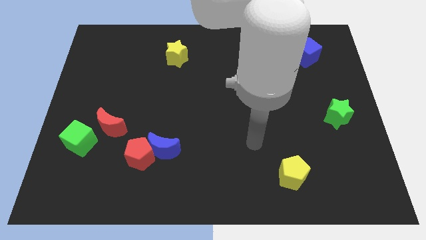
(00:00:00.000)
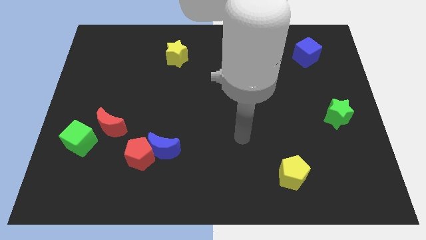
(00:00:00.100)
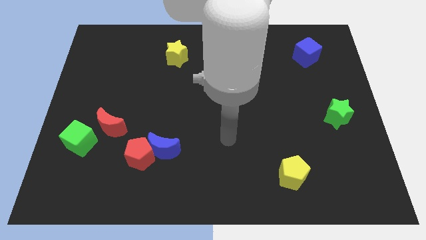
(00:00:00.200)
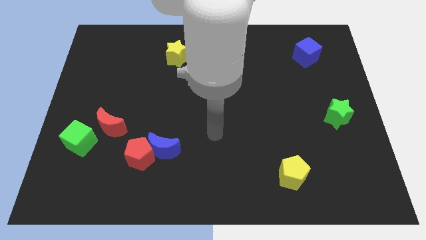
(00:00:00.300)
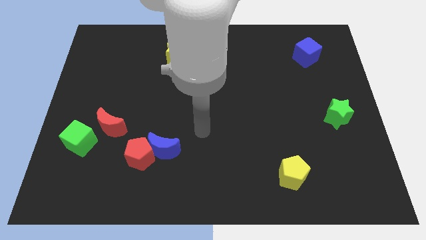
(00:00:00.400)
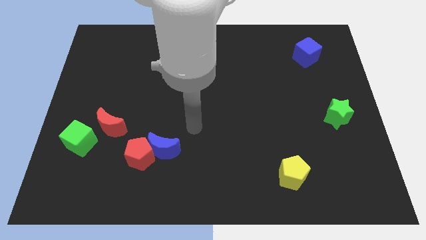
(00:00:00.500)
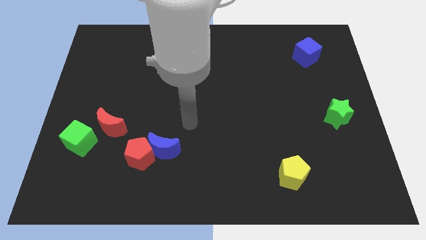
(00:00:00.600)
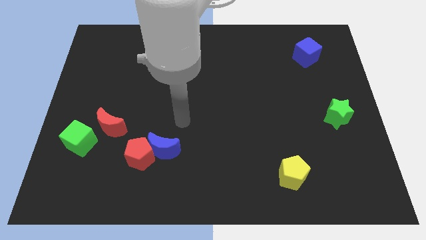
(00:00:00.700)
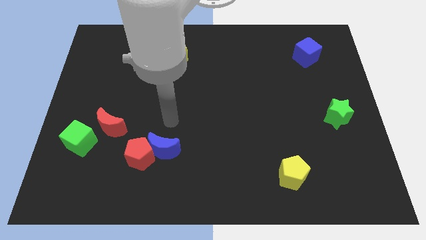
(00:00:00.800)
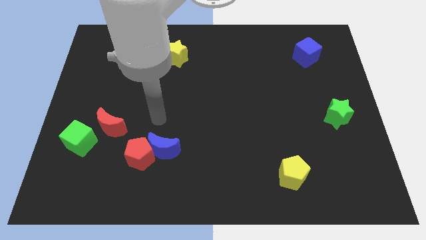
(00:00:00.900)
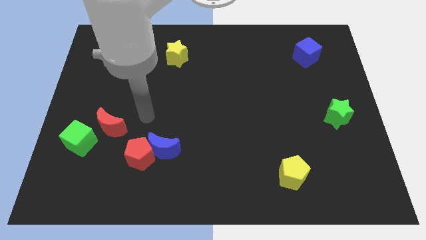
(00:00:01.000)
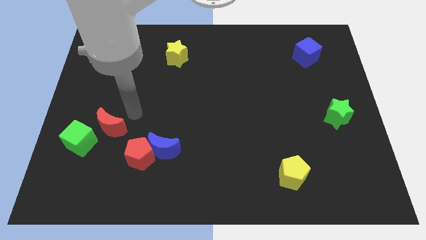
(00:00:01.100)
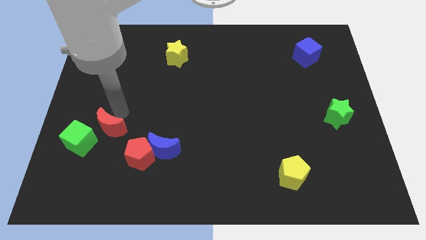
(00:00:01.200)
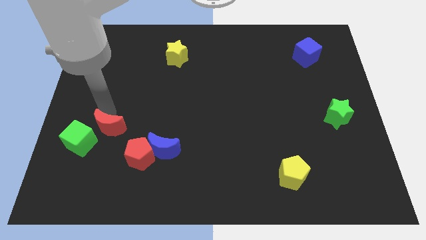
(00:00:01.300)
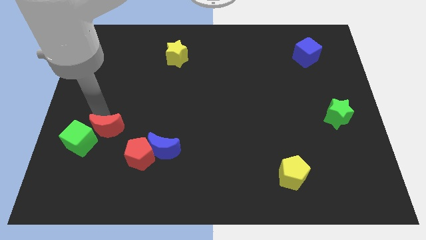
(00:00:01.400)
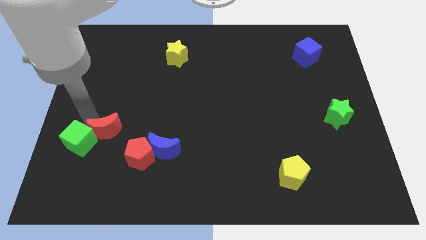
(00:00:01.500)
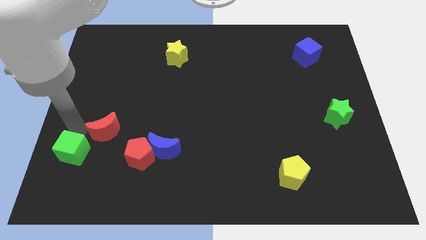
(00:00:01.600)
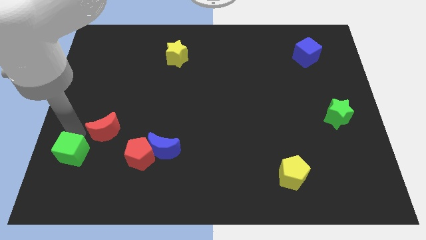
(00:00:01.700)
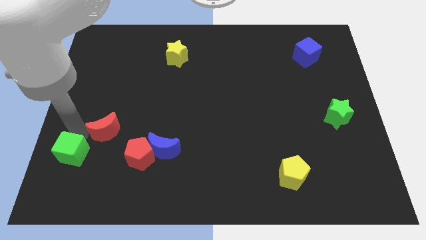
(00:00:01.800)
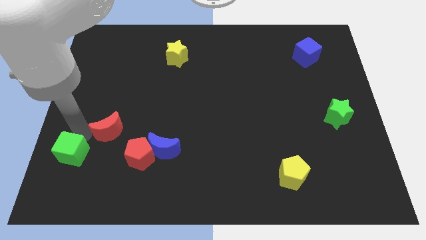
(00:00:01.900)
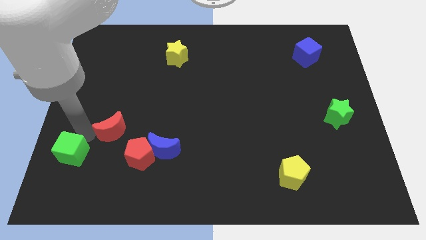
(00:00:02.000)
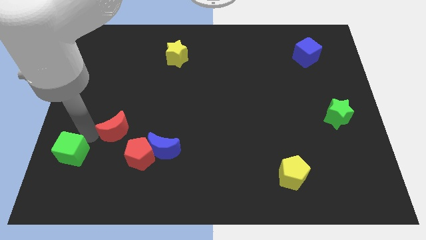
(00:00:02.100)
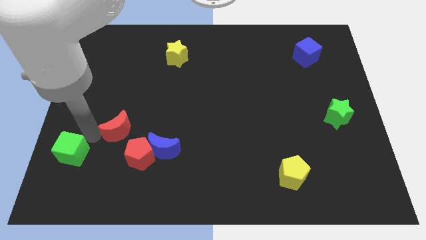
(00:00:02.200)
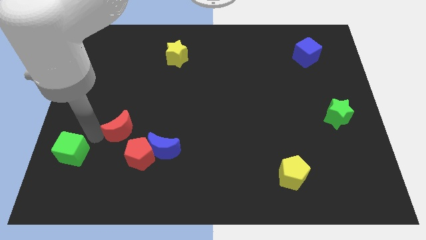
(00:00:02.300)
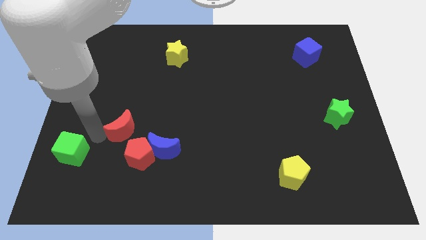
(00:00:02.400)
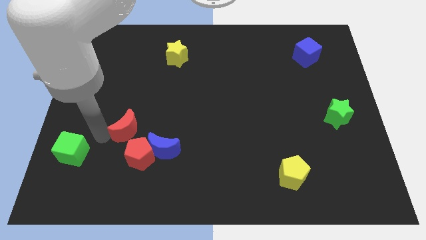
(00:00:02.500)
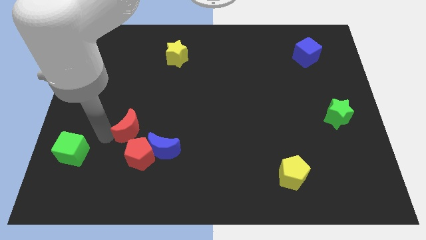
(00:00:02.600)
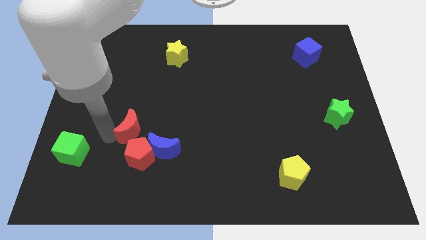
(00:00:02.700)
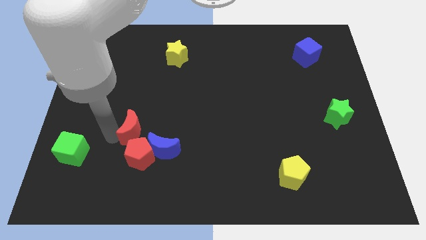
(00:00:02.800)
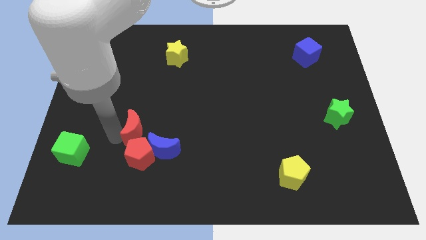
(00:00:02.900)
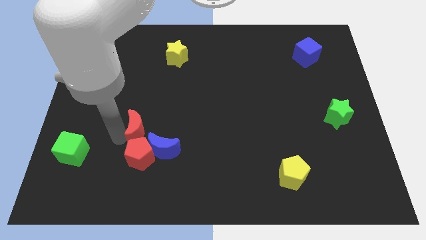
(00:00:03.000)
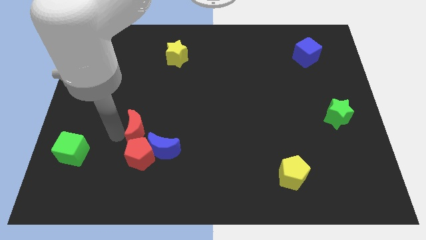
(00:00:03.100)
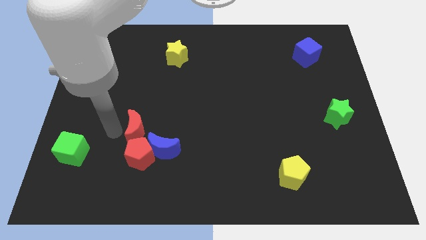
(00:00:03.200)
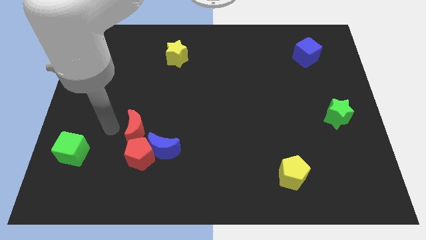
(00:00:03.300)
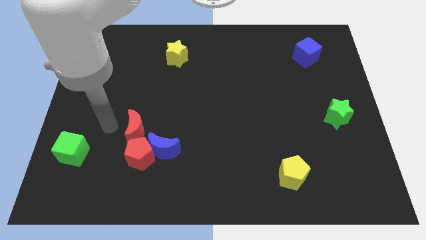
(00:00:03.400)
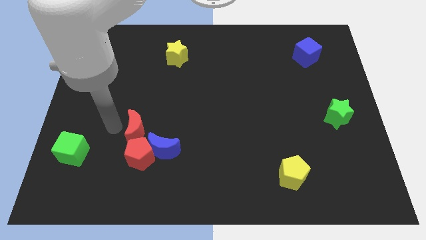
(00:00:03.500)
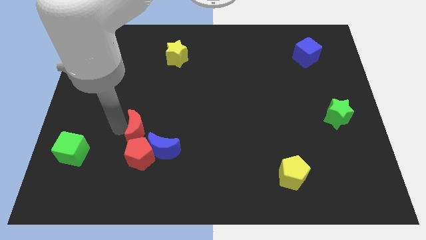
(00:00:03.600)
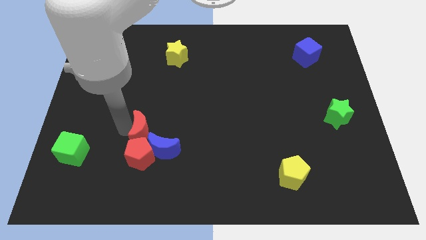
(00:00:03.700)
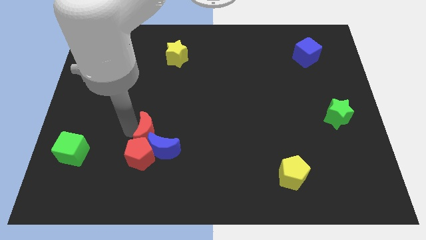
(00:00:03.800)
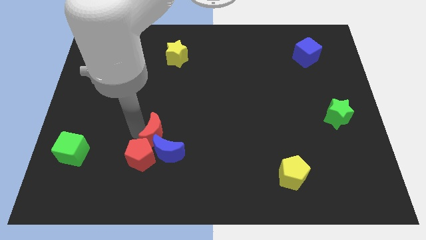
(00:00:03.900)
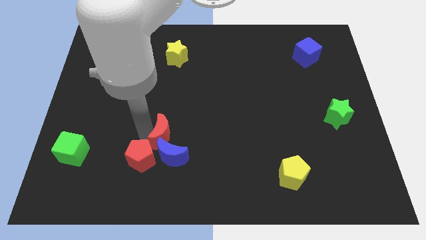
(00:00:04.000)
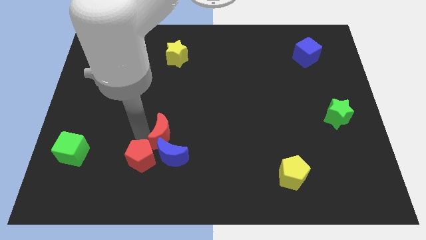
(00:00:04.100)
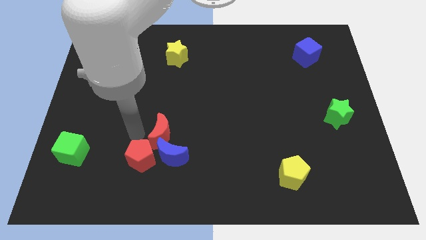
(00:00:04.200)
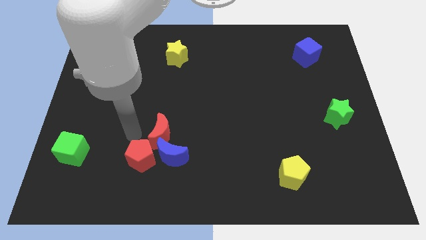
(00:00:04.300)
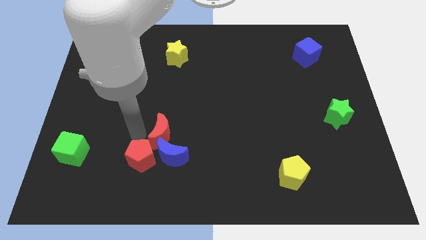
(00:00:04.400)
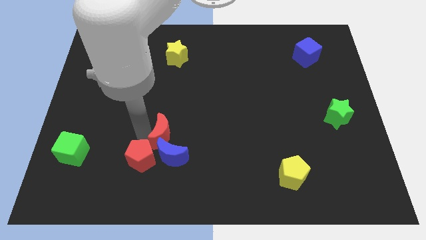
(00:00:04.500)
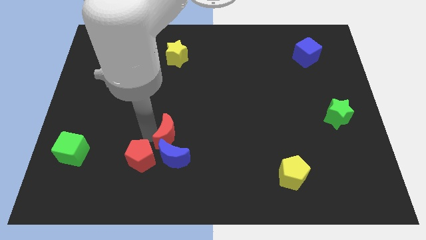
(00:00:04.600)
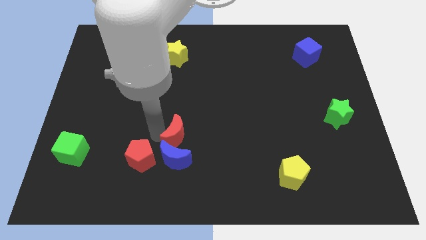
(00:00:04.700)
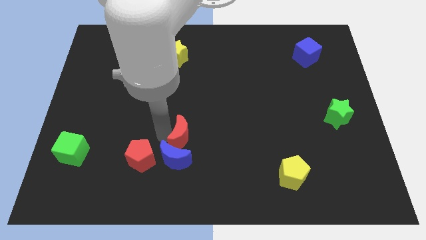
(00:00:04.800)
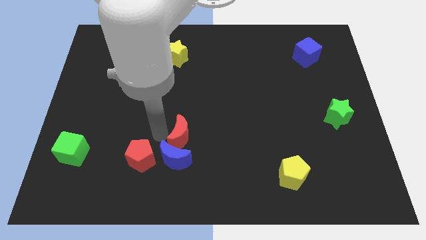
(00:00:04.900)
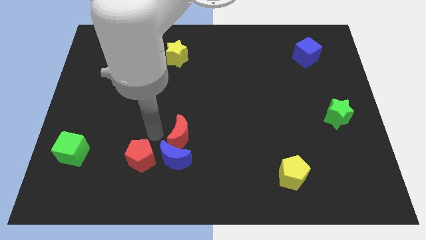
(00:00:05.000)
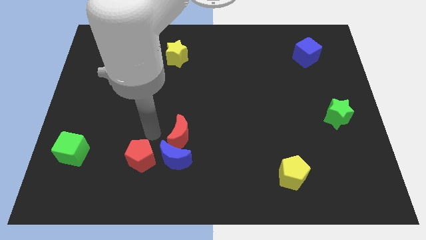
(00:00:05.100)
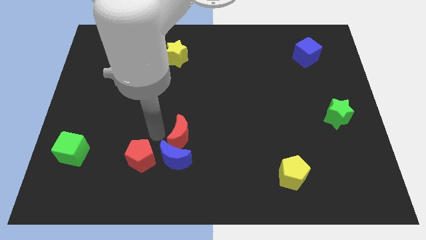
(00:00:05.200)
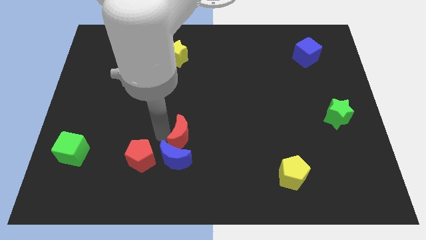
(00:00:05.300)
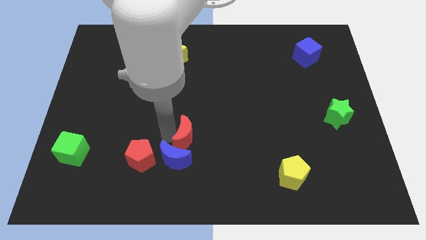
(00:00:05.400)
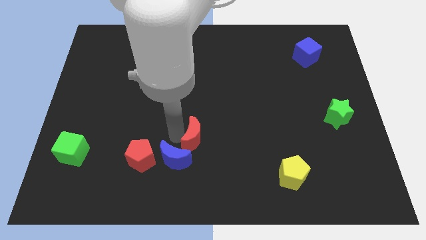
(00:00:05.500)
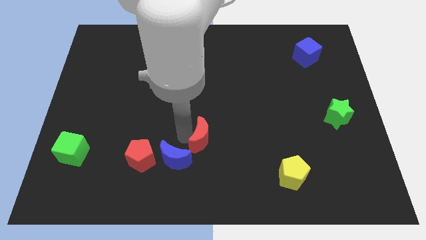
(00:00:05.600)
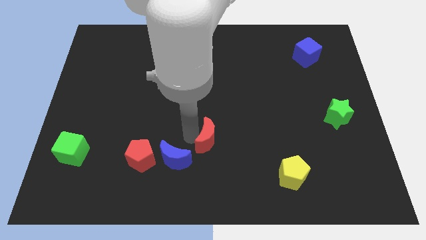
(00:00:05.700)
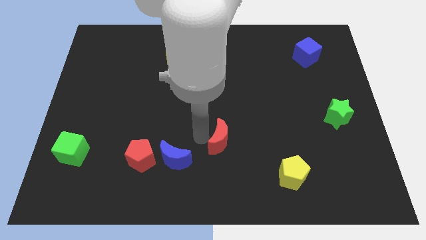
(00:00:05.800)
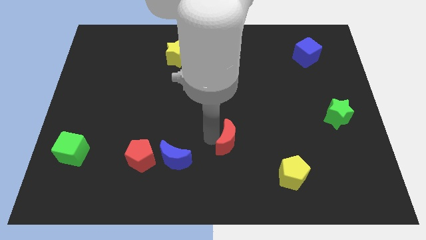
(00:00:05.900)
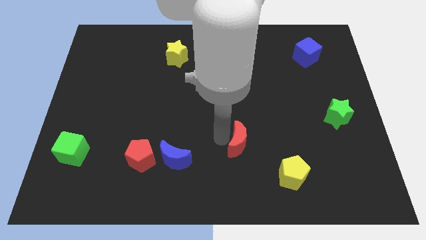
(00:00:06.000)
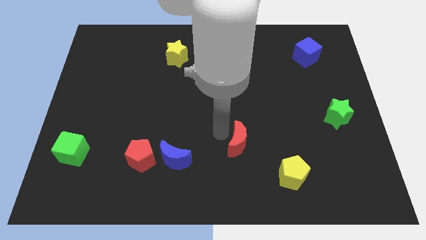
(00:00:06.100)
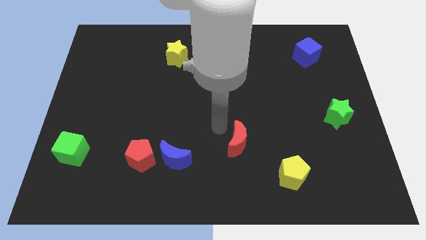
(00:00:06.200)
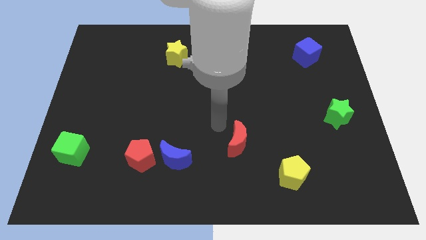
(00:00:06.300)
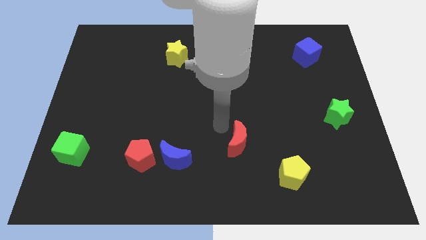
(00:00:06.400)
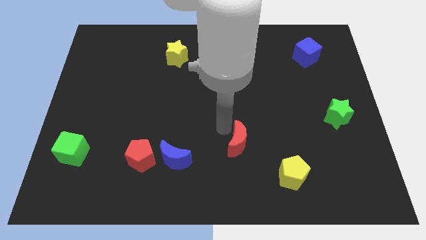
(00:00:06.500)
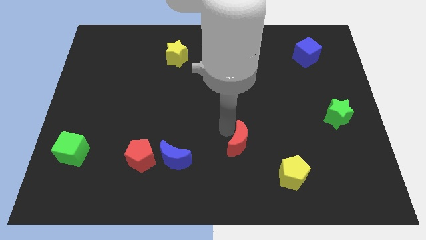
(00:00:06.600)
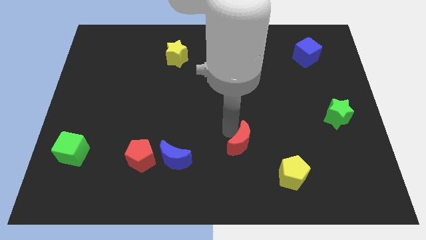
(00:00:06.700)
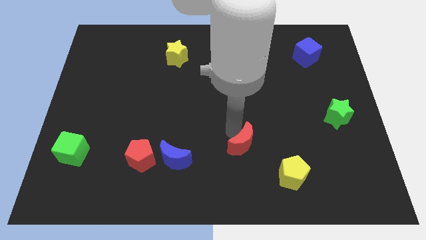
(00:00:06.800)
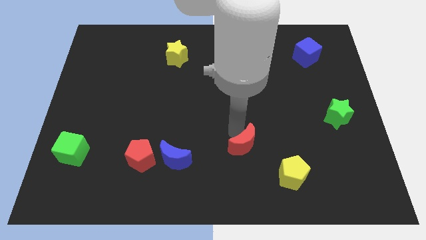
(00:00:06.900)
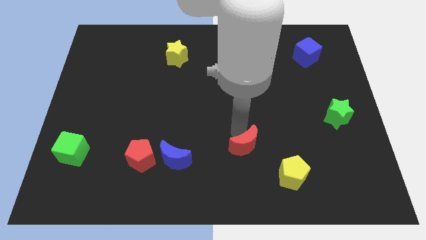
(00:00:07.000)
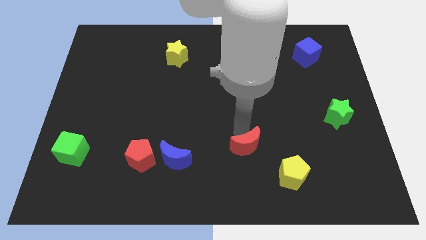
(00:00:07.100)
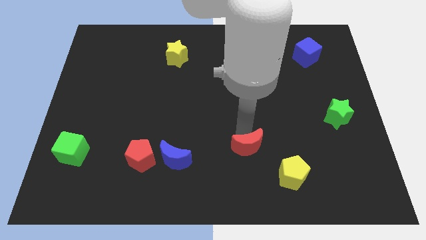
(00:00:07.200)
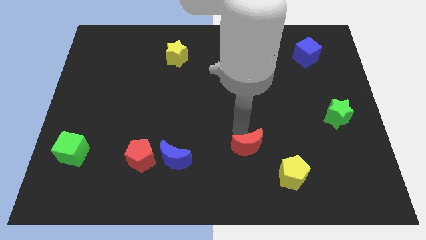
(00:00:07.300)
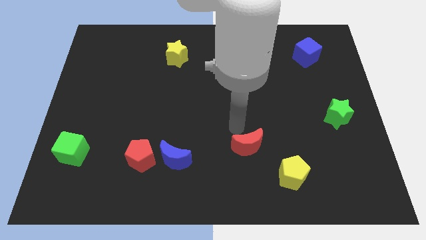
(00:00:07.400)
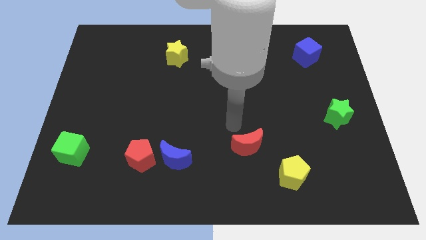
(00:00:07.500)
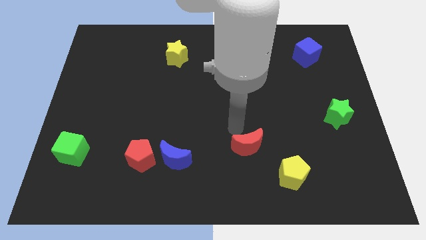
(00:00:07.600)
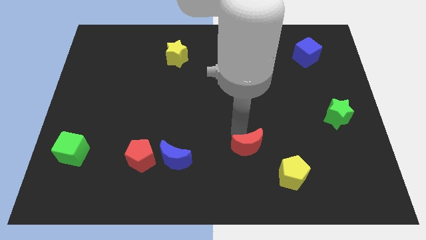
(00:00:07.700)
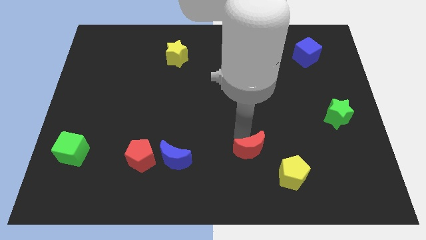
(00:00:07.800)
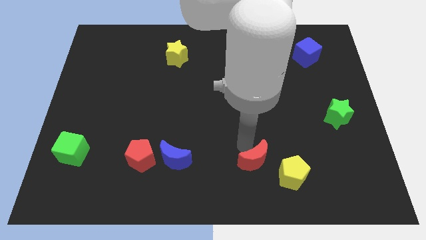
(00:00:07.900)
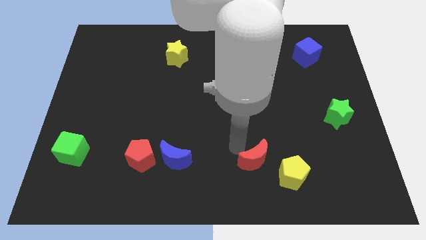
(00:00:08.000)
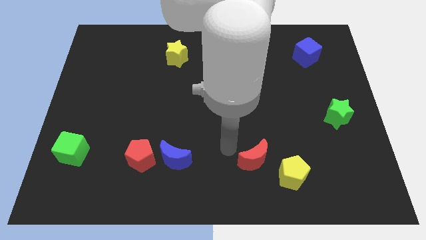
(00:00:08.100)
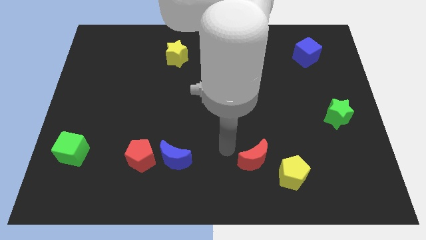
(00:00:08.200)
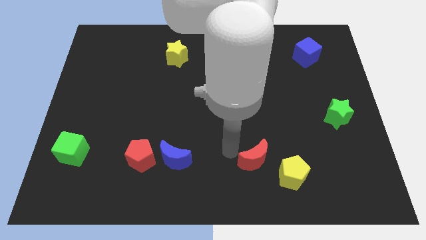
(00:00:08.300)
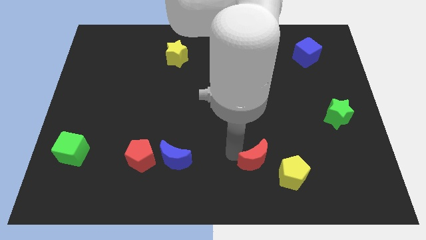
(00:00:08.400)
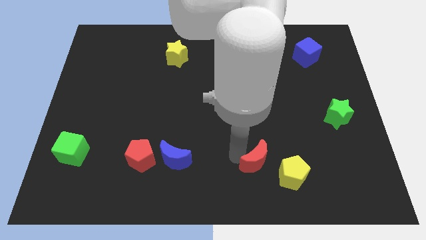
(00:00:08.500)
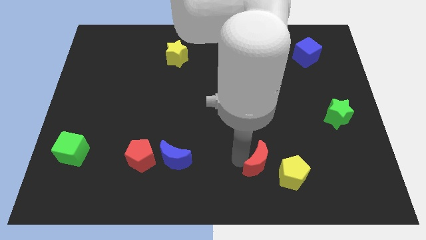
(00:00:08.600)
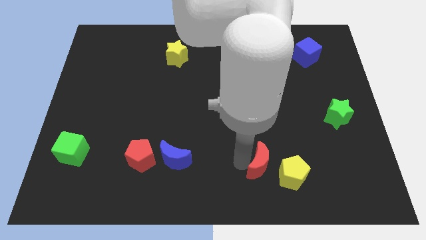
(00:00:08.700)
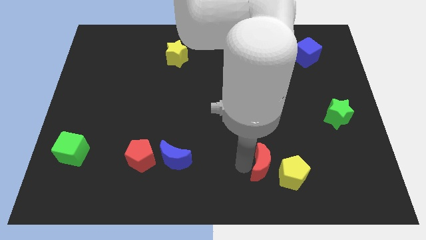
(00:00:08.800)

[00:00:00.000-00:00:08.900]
move the red moon towards the yellow pentagon
